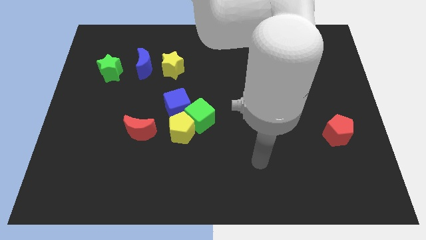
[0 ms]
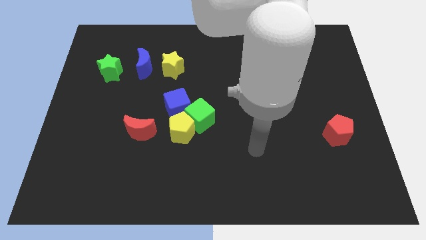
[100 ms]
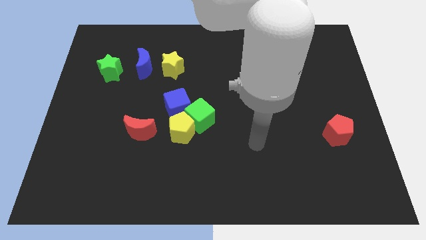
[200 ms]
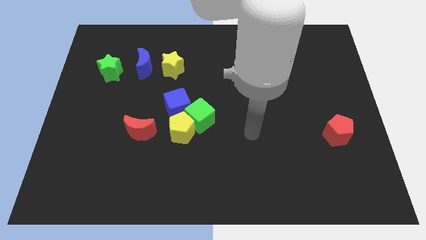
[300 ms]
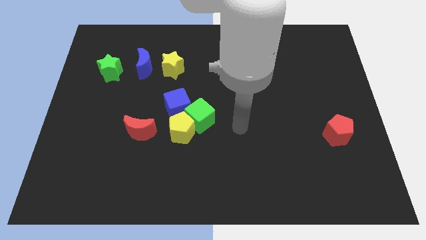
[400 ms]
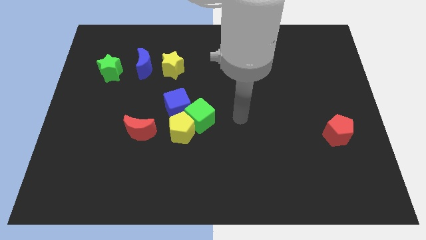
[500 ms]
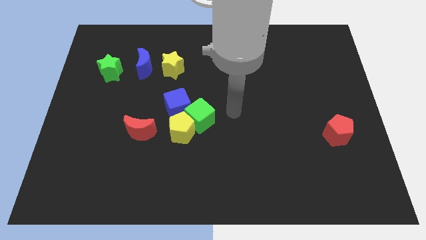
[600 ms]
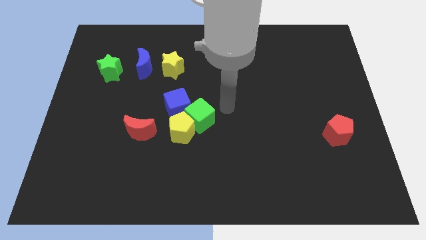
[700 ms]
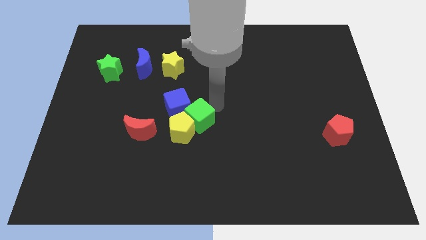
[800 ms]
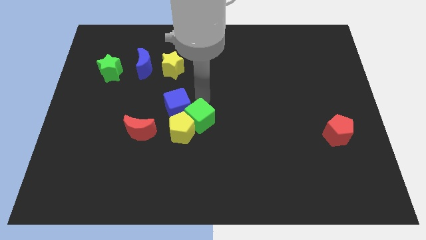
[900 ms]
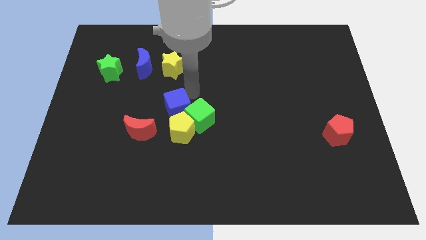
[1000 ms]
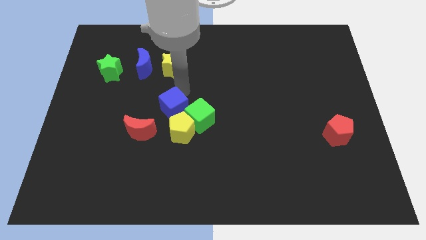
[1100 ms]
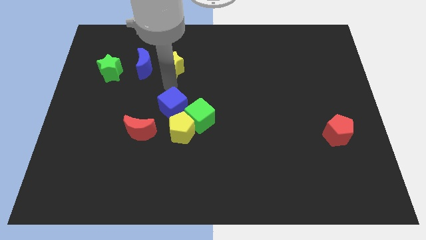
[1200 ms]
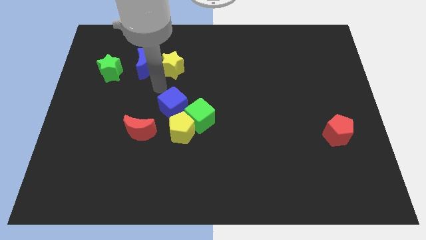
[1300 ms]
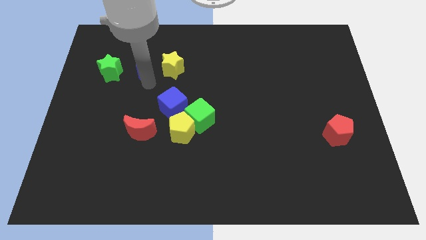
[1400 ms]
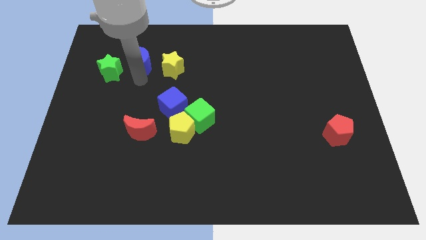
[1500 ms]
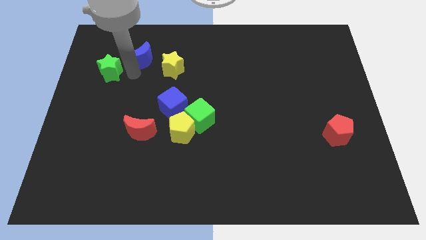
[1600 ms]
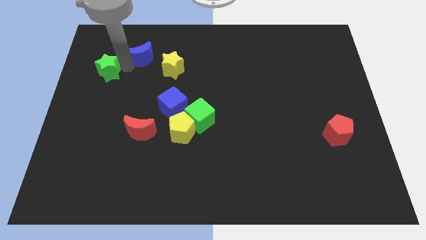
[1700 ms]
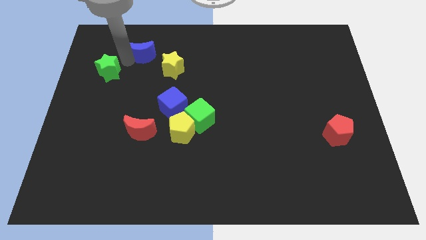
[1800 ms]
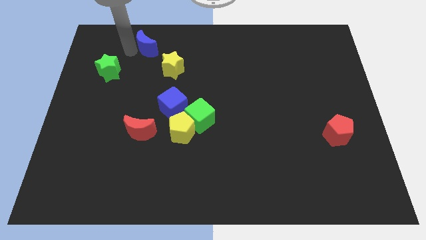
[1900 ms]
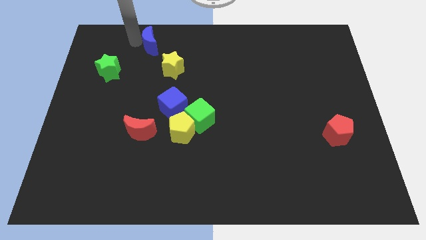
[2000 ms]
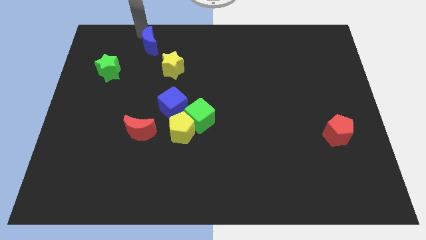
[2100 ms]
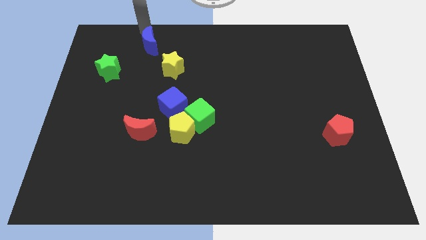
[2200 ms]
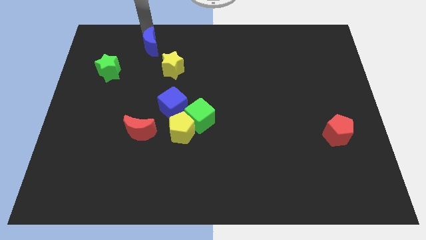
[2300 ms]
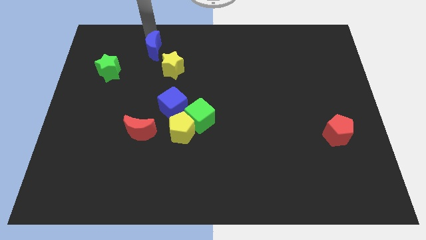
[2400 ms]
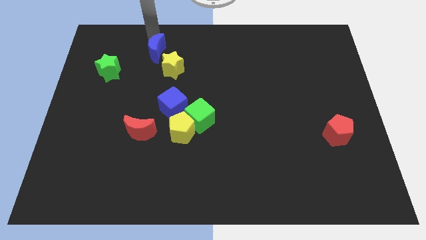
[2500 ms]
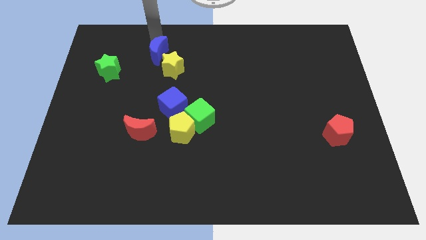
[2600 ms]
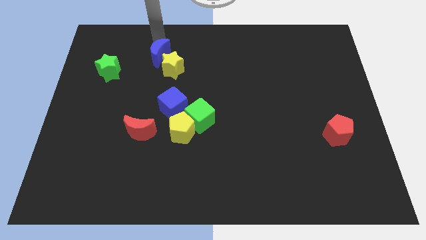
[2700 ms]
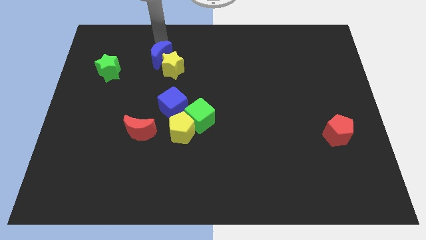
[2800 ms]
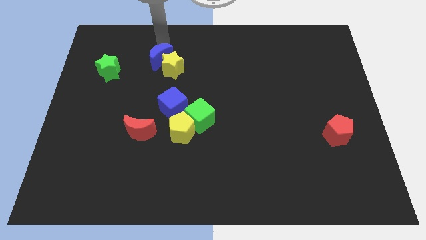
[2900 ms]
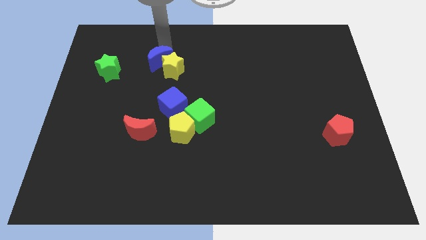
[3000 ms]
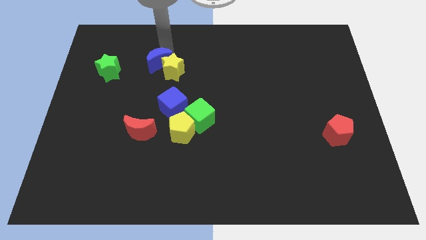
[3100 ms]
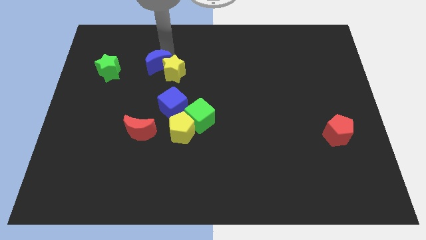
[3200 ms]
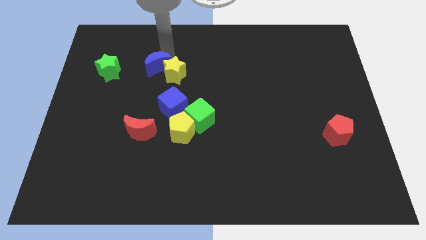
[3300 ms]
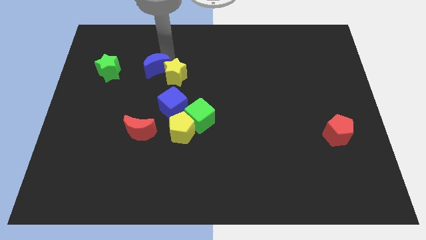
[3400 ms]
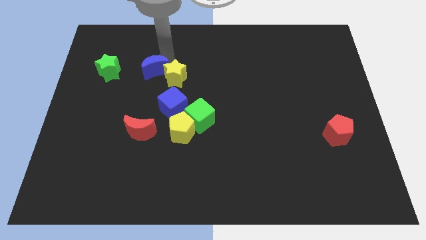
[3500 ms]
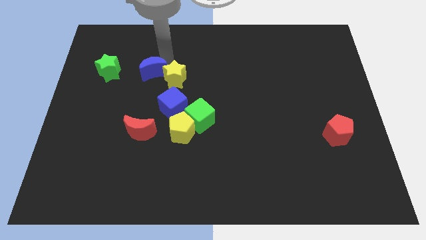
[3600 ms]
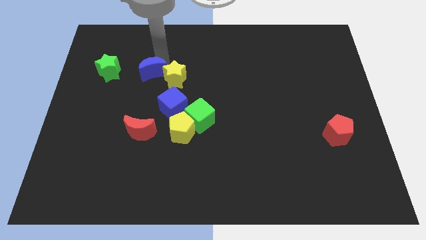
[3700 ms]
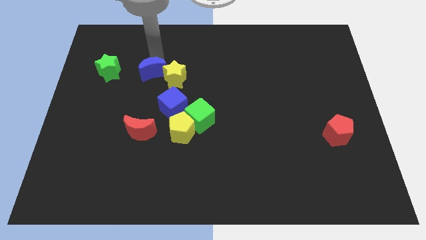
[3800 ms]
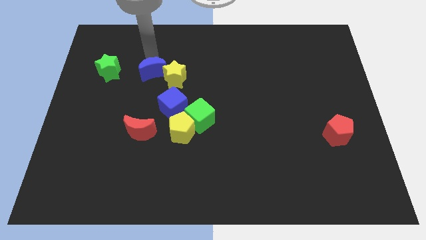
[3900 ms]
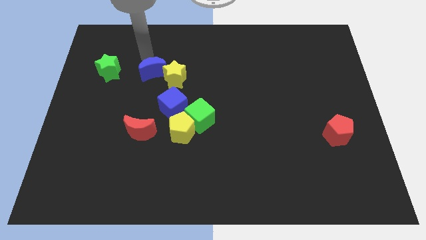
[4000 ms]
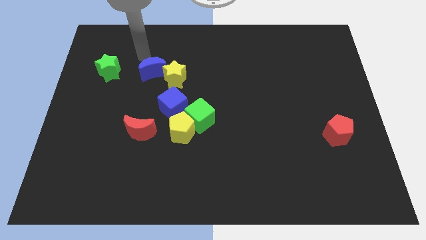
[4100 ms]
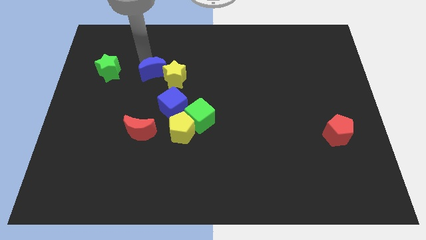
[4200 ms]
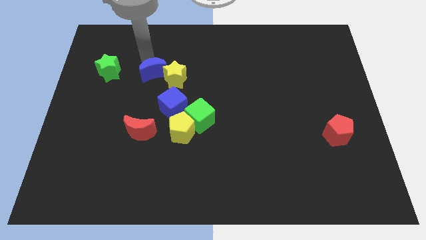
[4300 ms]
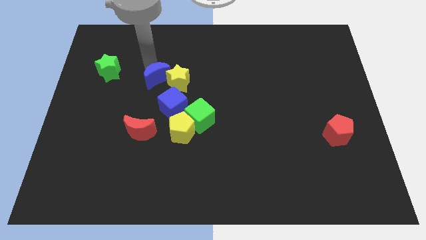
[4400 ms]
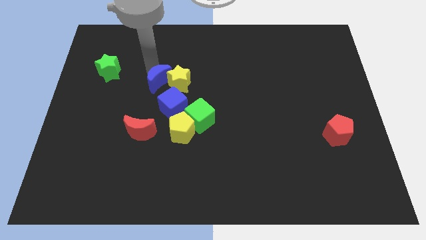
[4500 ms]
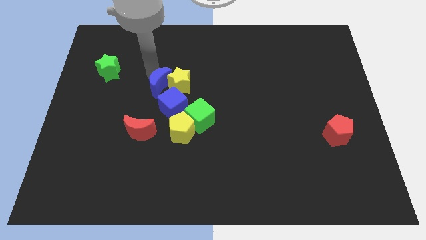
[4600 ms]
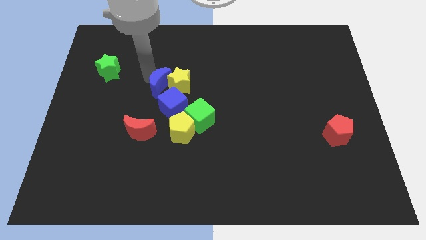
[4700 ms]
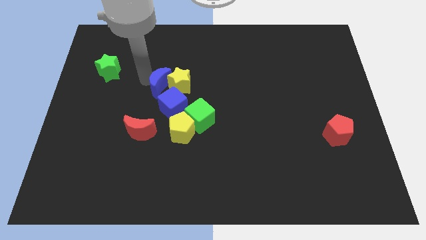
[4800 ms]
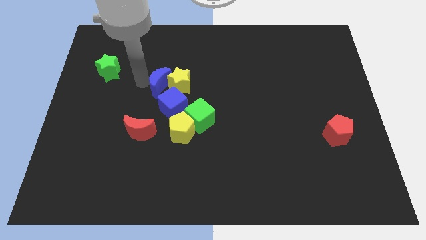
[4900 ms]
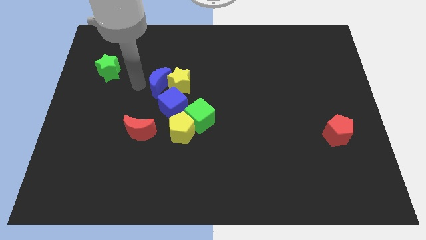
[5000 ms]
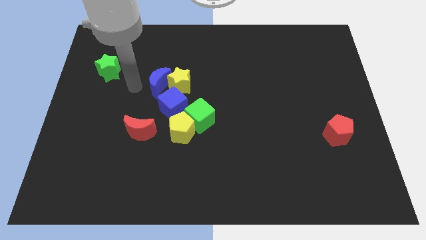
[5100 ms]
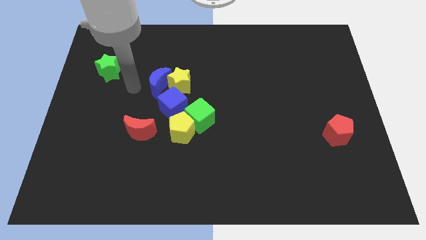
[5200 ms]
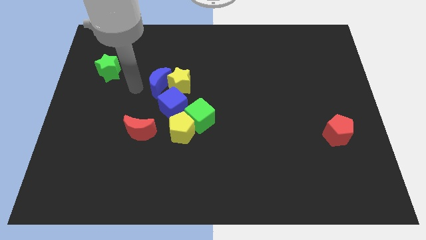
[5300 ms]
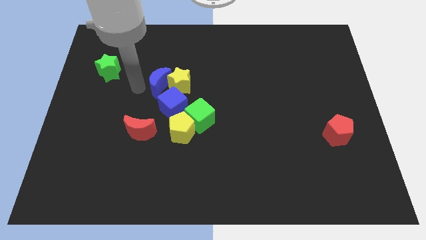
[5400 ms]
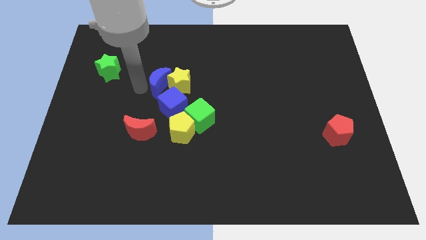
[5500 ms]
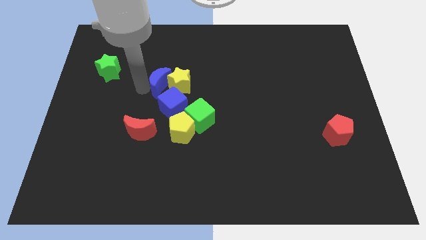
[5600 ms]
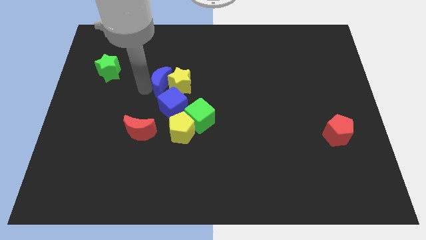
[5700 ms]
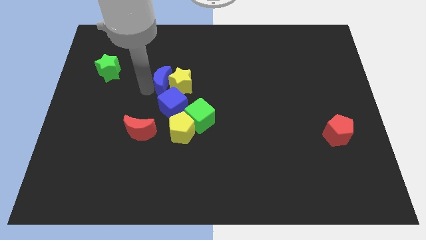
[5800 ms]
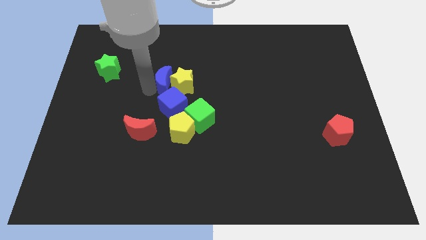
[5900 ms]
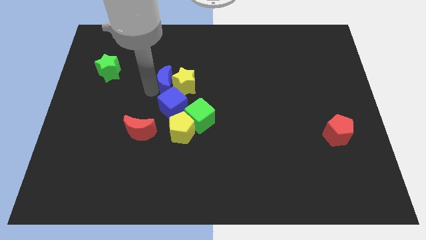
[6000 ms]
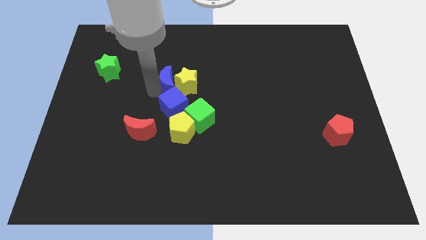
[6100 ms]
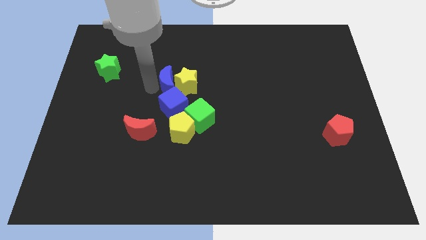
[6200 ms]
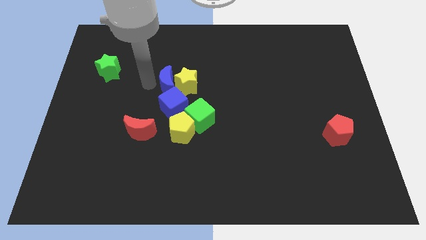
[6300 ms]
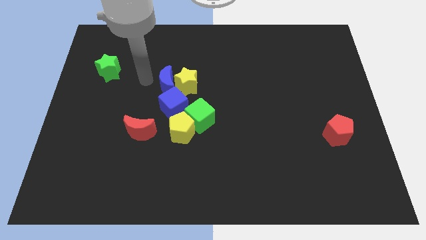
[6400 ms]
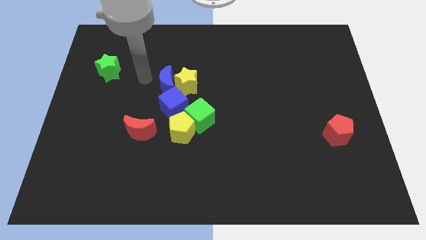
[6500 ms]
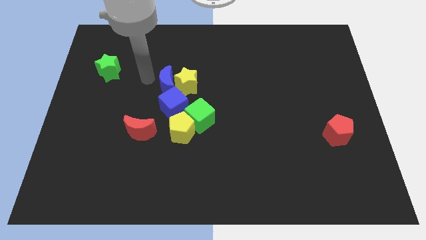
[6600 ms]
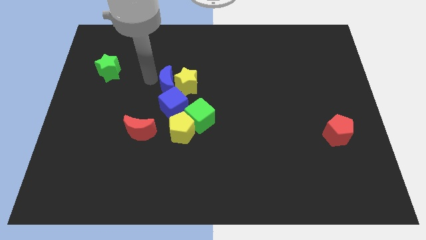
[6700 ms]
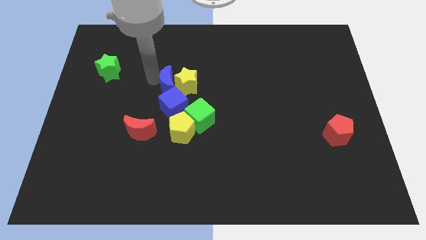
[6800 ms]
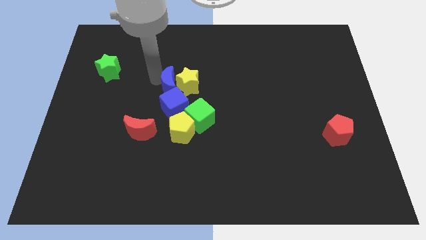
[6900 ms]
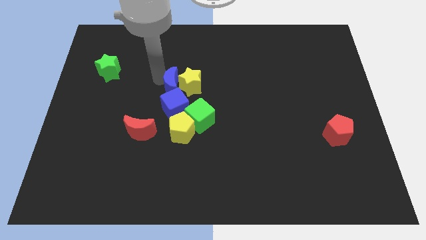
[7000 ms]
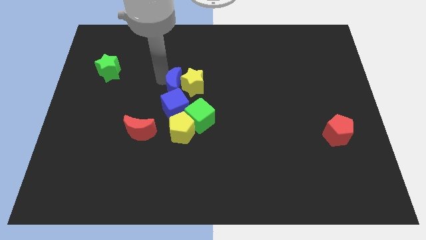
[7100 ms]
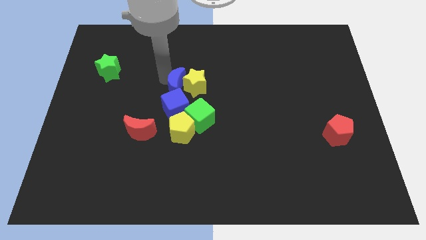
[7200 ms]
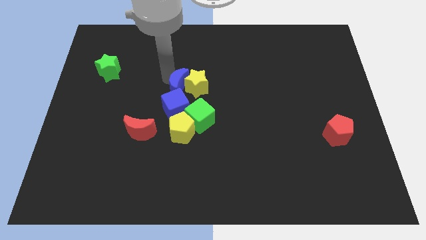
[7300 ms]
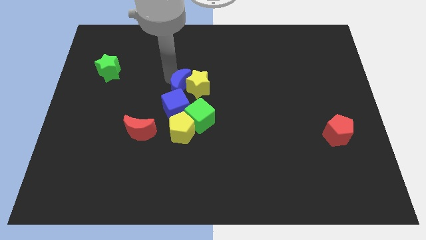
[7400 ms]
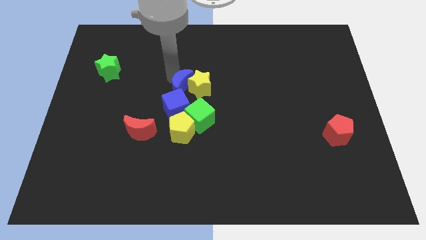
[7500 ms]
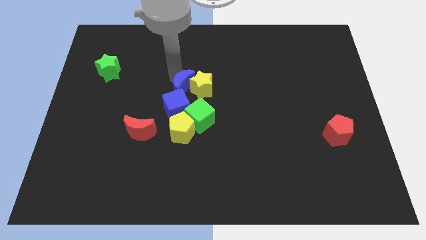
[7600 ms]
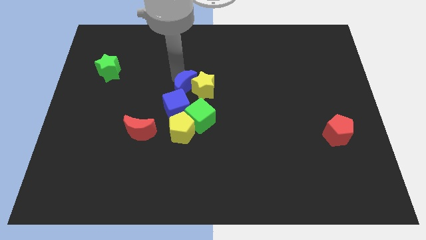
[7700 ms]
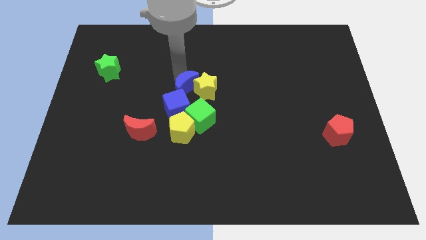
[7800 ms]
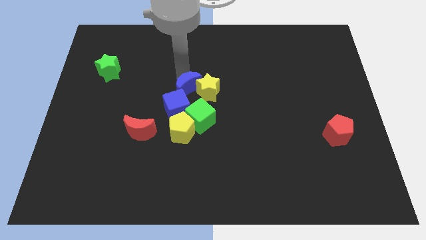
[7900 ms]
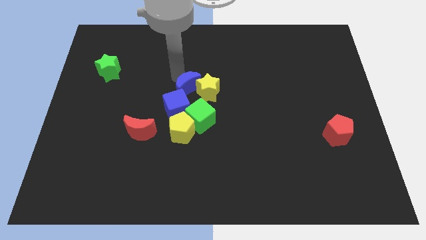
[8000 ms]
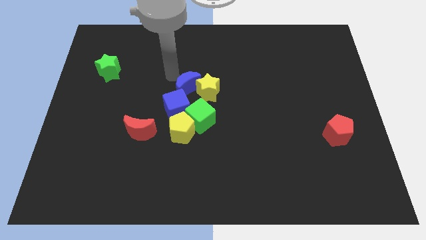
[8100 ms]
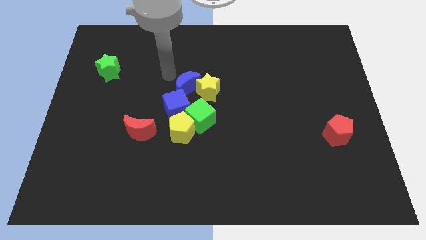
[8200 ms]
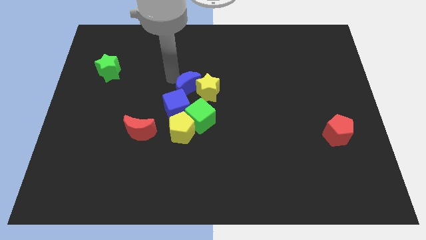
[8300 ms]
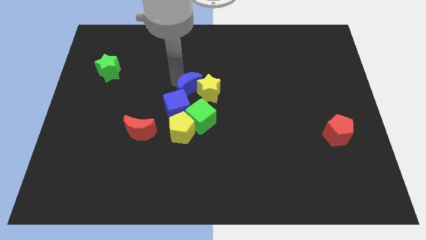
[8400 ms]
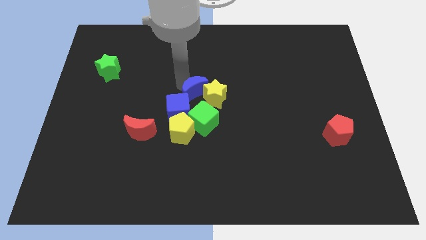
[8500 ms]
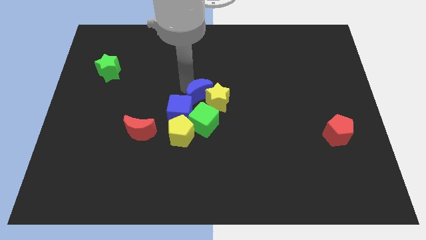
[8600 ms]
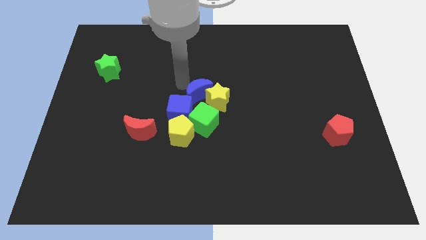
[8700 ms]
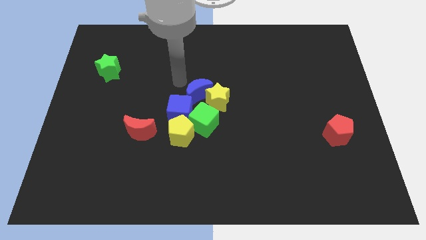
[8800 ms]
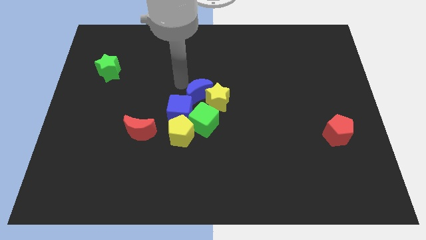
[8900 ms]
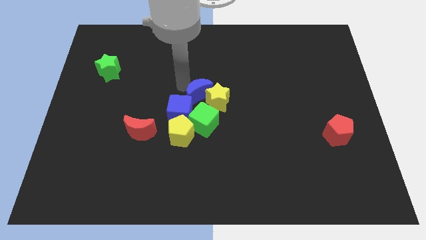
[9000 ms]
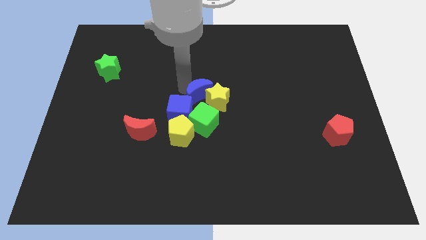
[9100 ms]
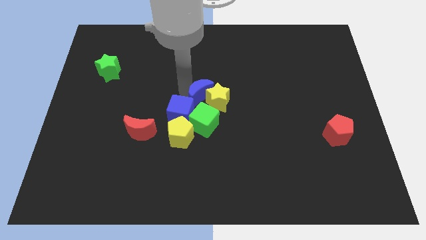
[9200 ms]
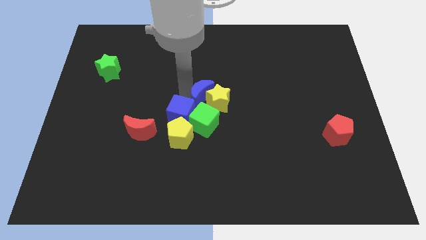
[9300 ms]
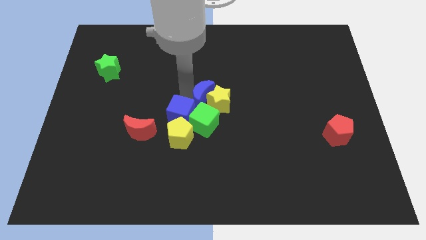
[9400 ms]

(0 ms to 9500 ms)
push the blue moon to the right of the blue cube
